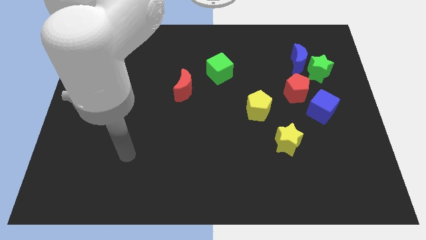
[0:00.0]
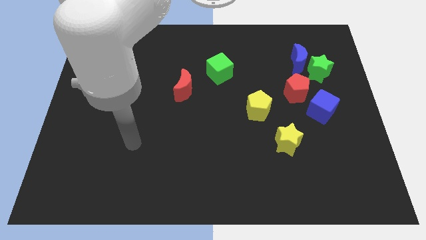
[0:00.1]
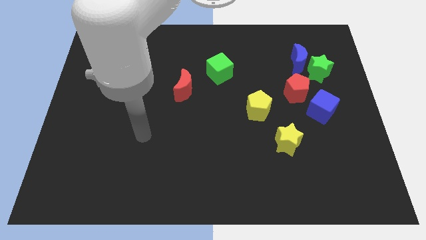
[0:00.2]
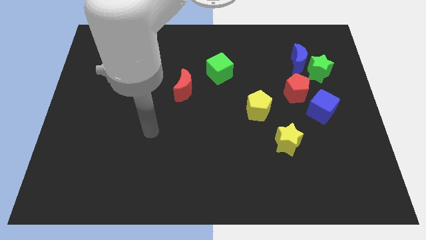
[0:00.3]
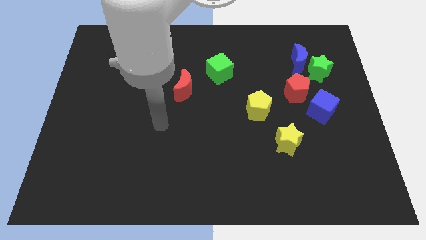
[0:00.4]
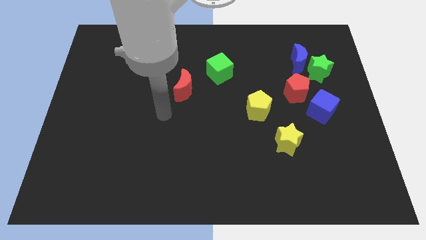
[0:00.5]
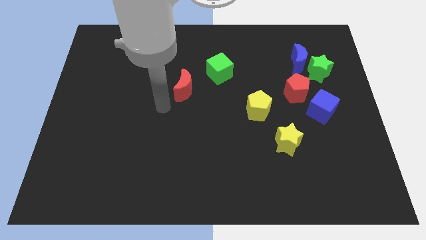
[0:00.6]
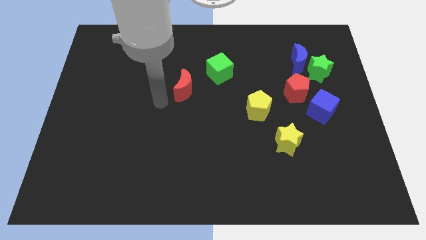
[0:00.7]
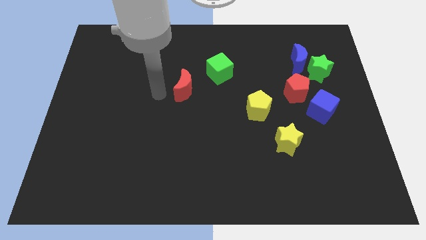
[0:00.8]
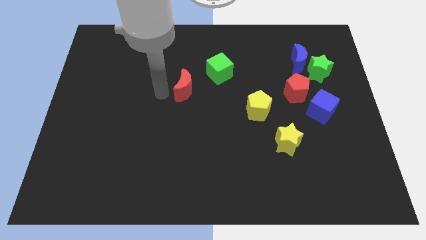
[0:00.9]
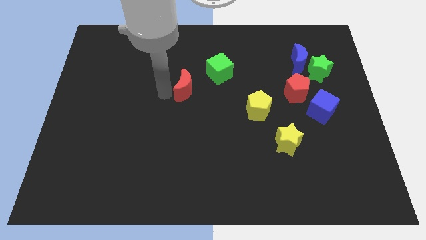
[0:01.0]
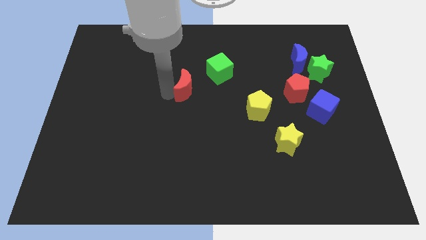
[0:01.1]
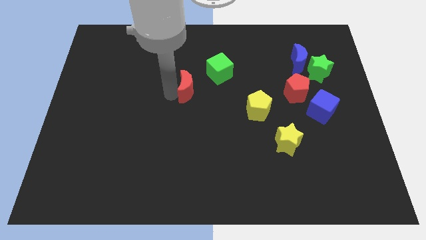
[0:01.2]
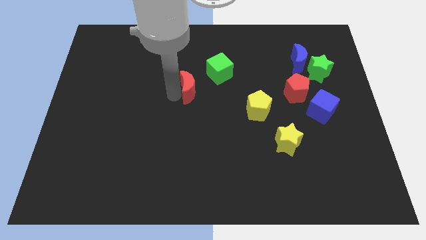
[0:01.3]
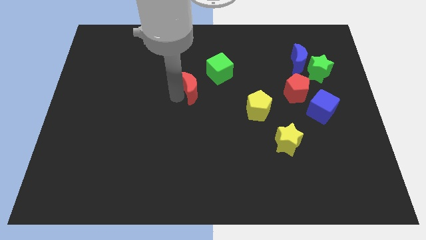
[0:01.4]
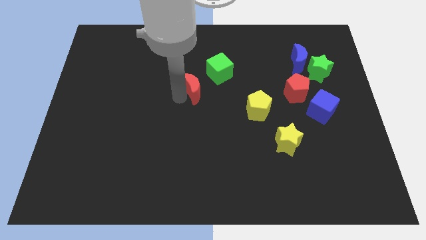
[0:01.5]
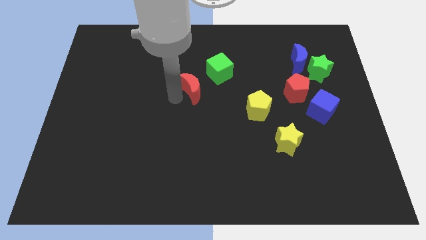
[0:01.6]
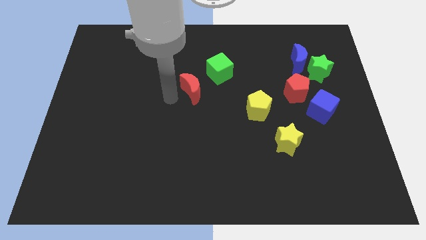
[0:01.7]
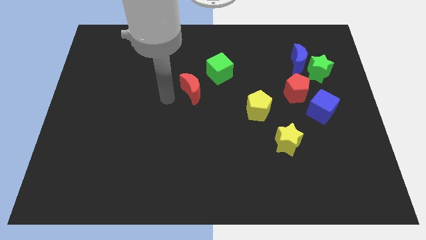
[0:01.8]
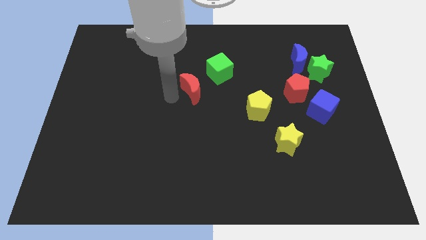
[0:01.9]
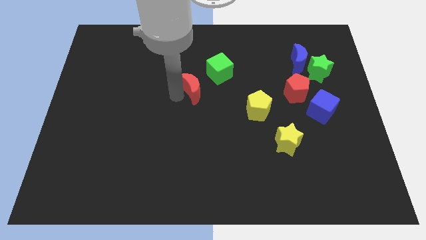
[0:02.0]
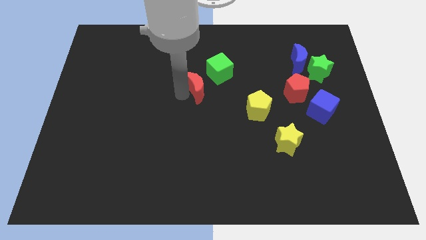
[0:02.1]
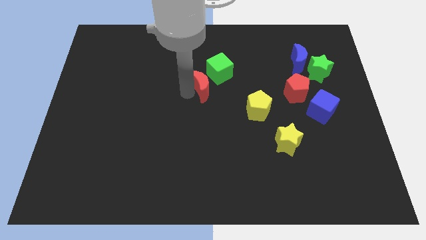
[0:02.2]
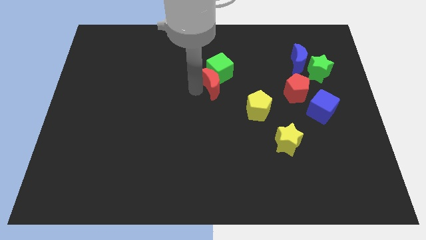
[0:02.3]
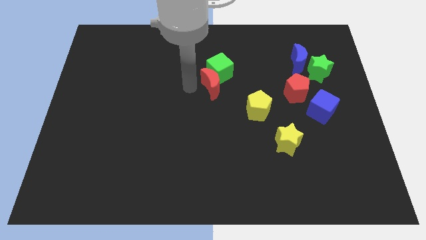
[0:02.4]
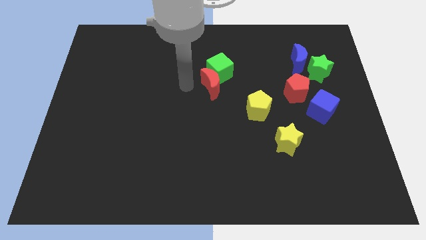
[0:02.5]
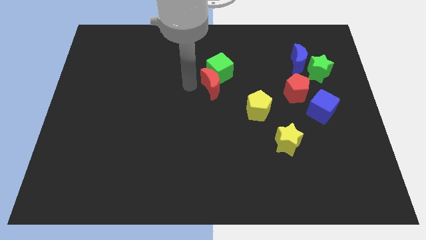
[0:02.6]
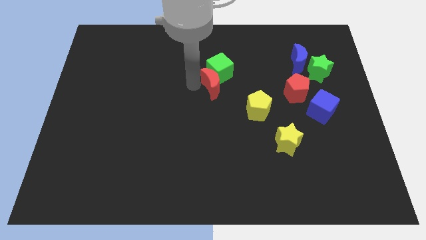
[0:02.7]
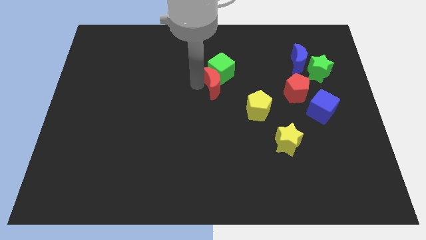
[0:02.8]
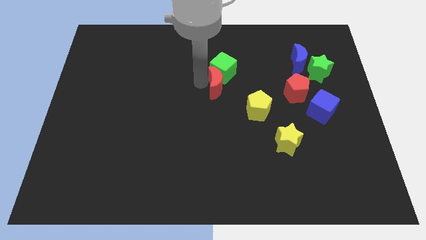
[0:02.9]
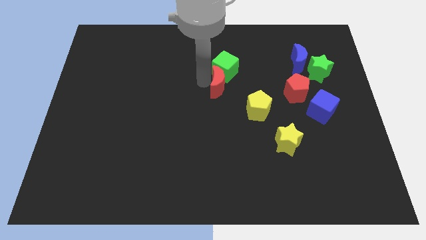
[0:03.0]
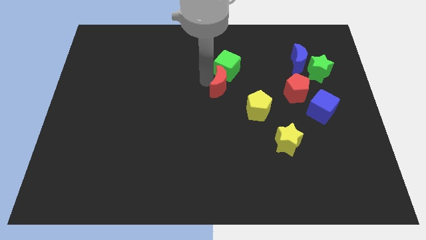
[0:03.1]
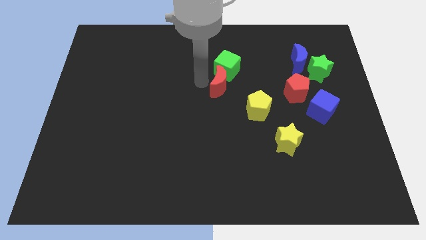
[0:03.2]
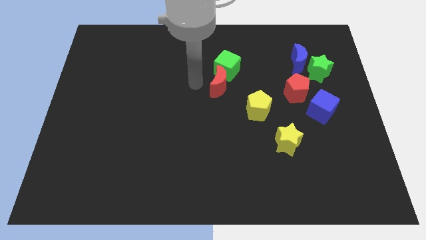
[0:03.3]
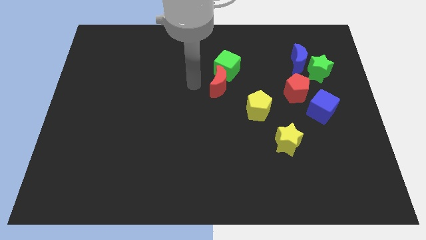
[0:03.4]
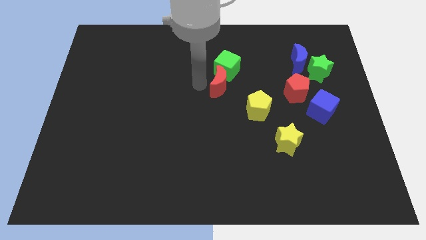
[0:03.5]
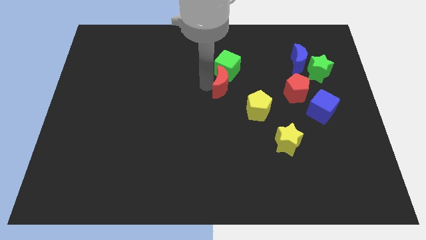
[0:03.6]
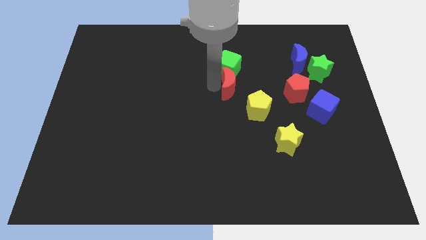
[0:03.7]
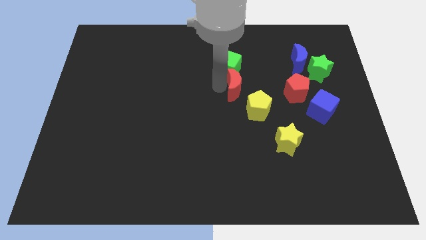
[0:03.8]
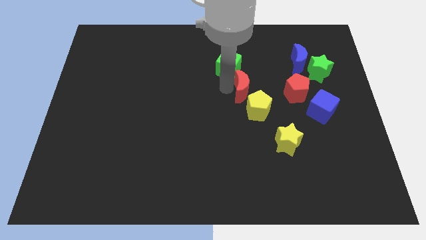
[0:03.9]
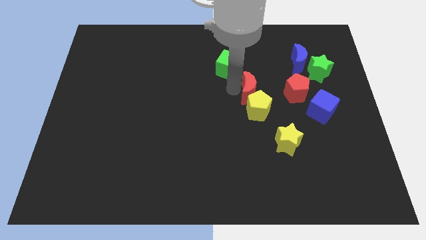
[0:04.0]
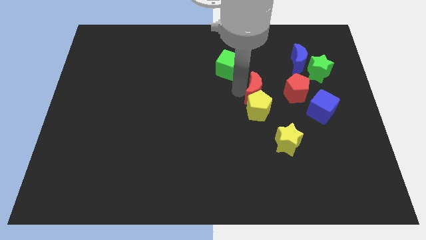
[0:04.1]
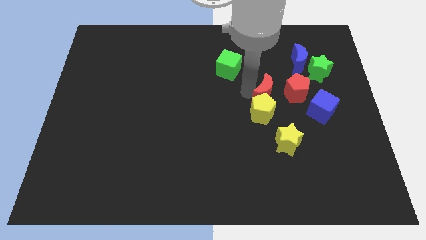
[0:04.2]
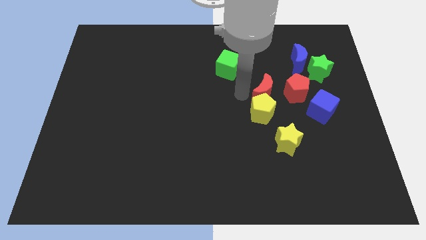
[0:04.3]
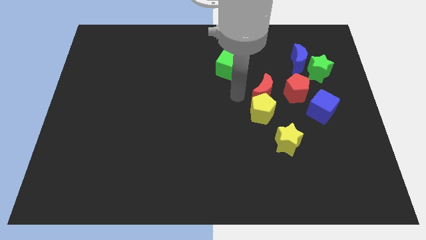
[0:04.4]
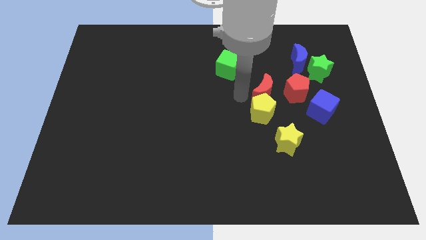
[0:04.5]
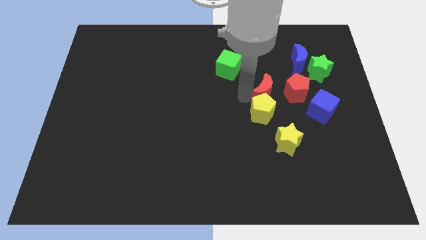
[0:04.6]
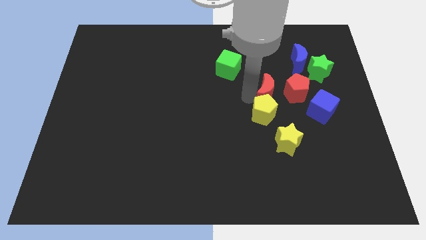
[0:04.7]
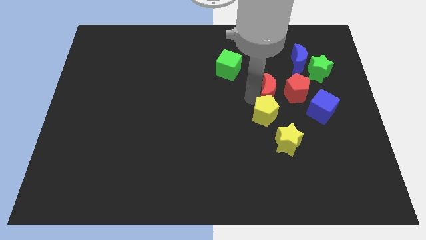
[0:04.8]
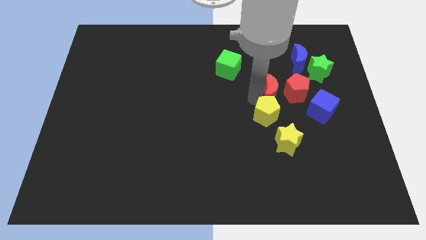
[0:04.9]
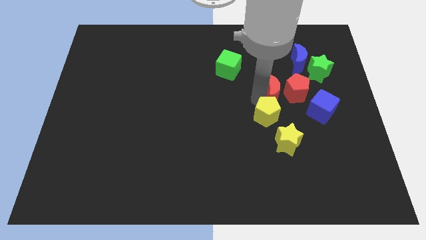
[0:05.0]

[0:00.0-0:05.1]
move the red moon next to the red pentagon

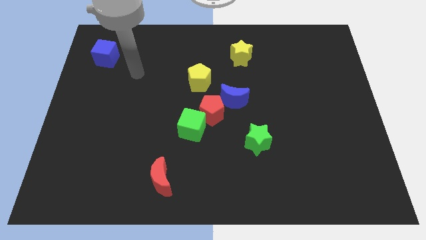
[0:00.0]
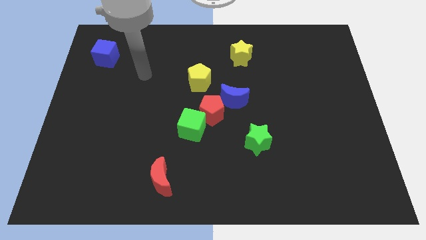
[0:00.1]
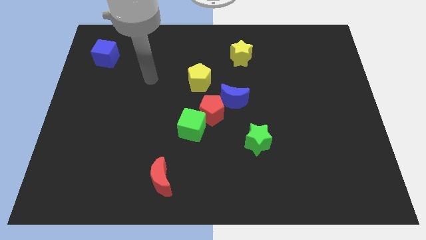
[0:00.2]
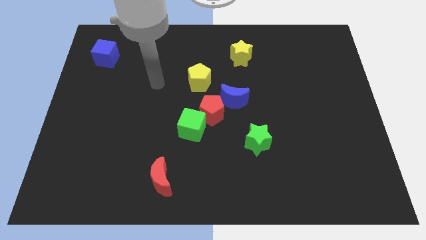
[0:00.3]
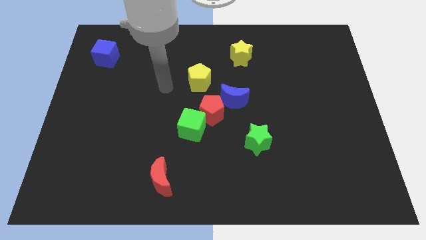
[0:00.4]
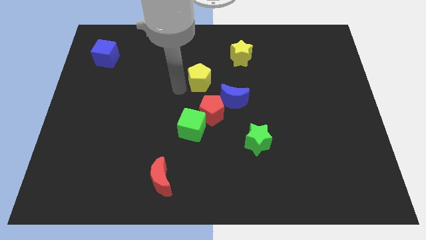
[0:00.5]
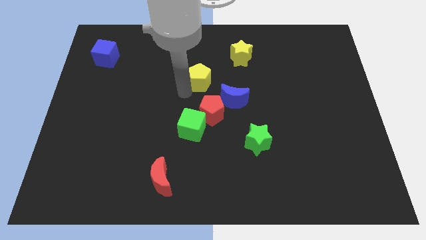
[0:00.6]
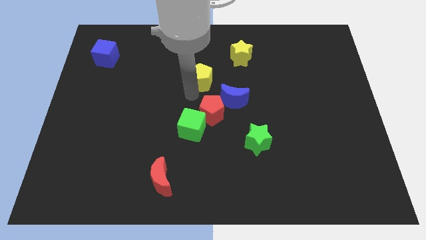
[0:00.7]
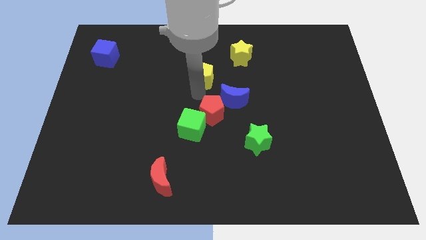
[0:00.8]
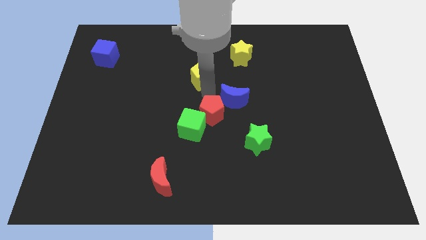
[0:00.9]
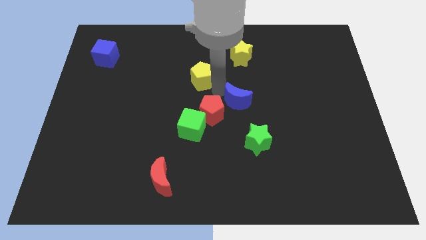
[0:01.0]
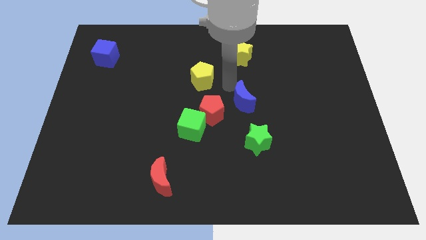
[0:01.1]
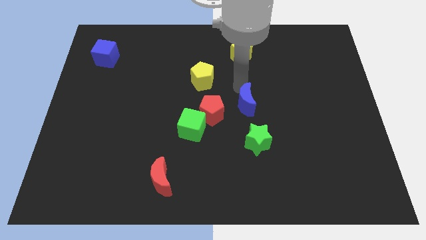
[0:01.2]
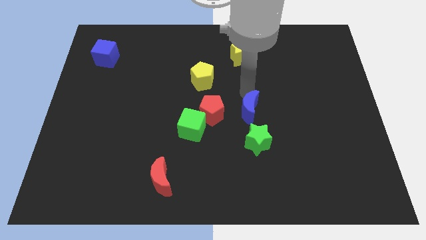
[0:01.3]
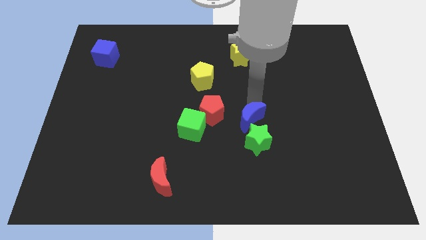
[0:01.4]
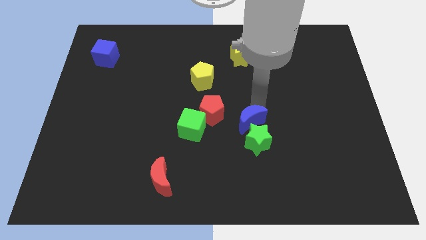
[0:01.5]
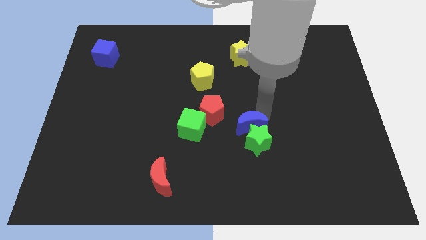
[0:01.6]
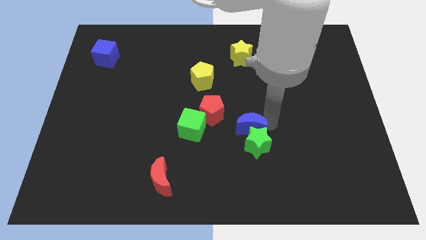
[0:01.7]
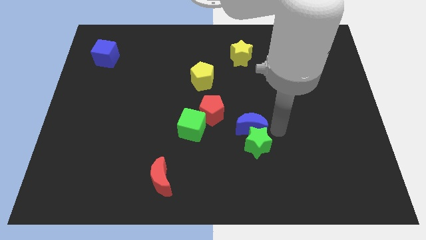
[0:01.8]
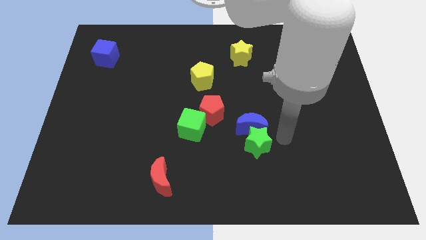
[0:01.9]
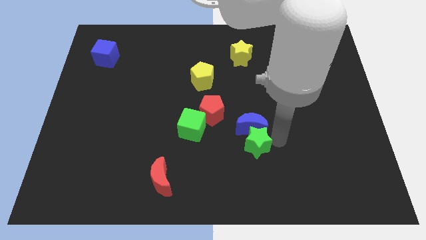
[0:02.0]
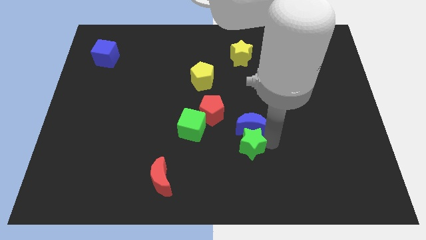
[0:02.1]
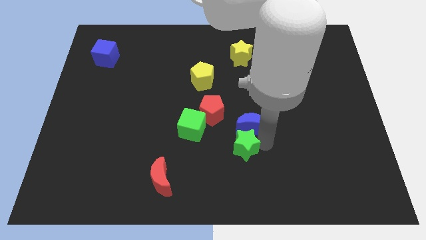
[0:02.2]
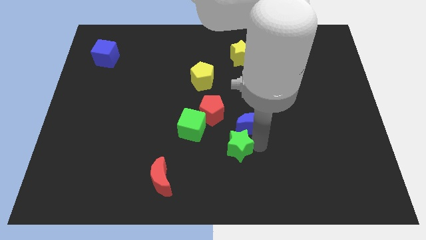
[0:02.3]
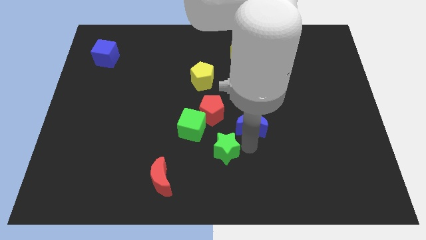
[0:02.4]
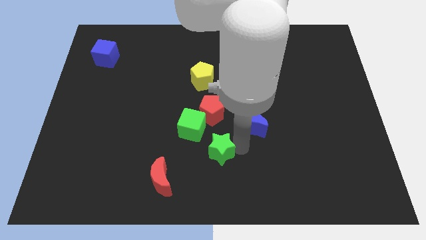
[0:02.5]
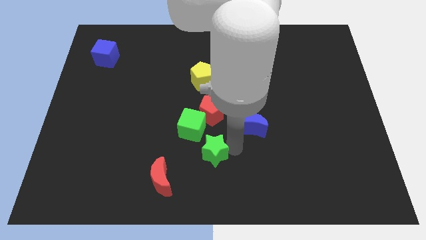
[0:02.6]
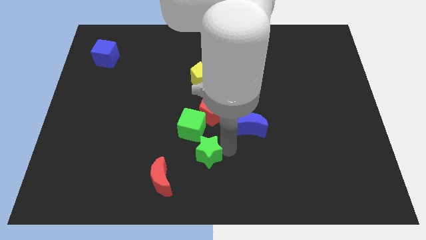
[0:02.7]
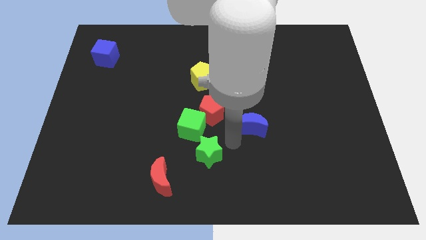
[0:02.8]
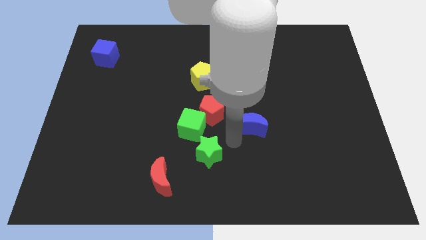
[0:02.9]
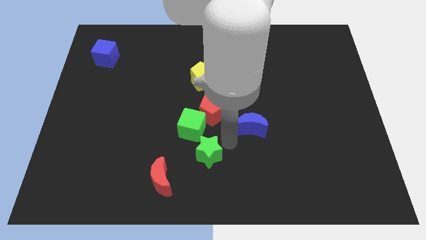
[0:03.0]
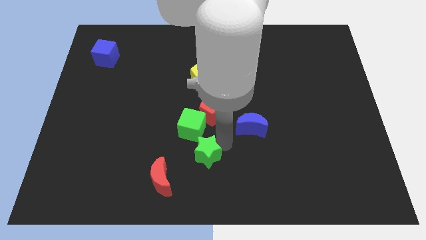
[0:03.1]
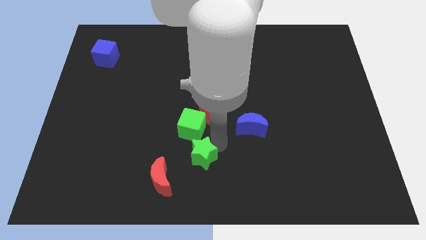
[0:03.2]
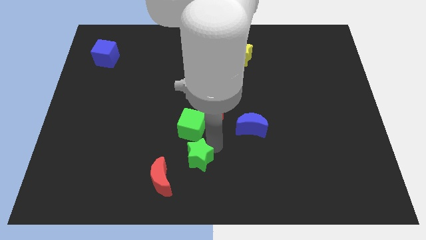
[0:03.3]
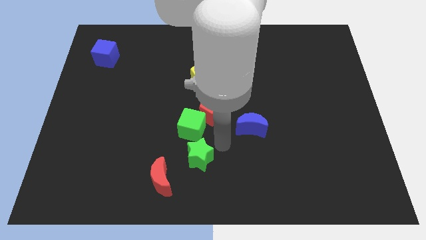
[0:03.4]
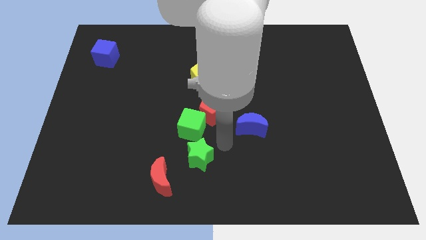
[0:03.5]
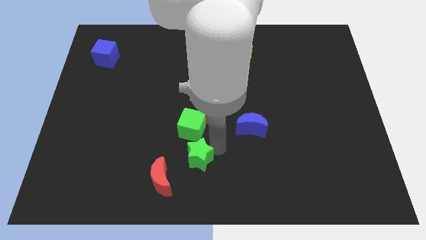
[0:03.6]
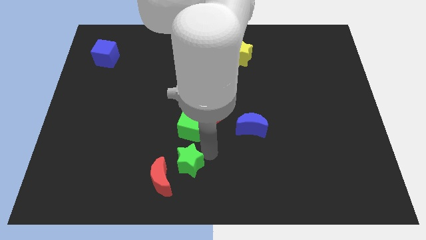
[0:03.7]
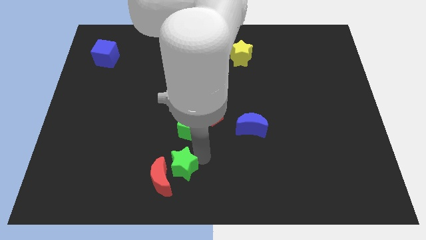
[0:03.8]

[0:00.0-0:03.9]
move the green star to the red moon
